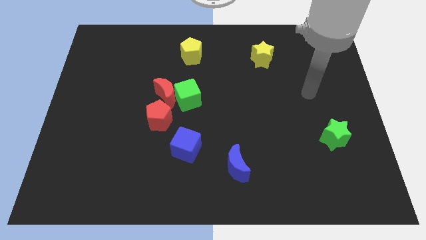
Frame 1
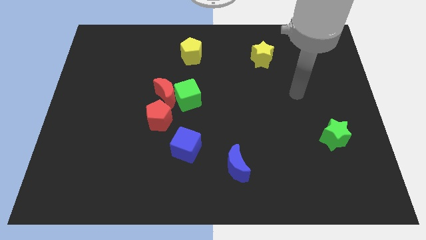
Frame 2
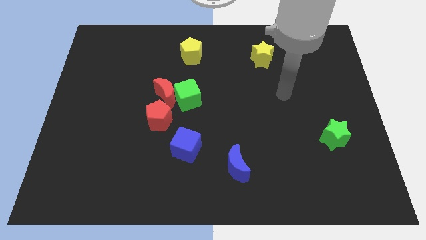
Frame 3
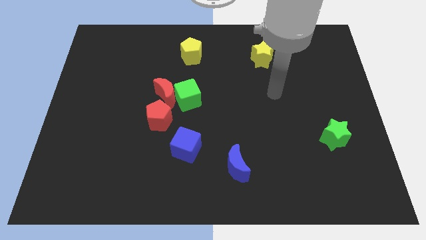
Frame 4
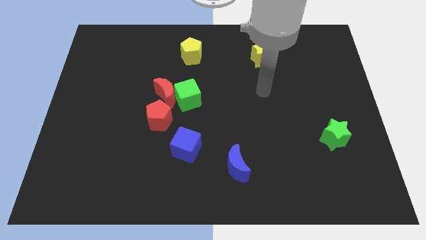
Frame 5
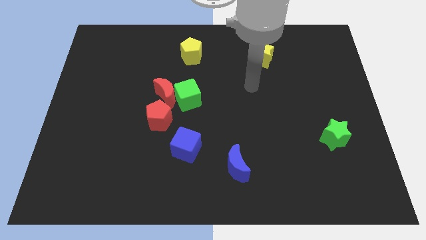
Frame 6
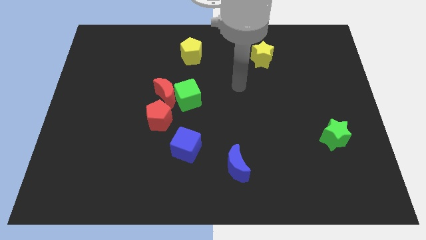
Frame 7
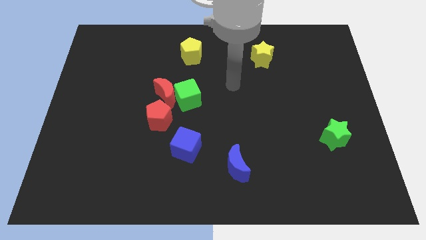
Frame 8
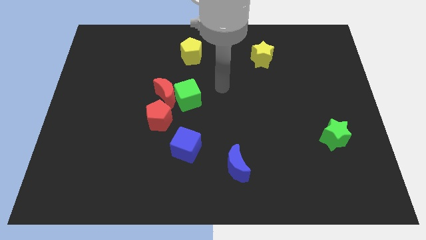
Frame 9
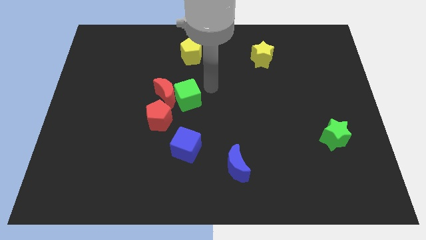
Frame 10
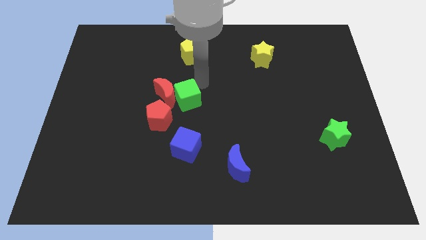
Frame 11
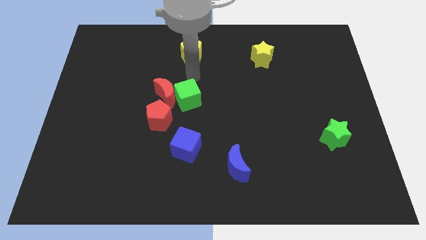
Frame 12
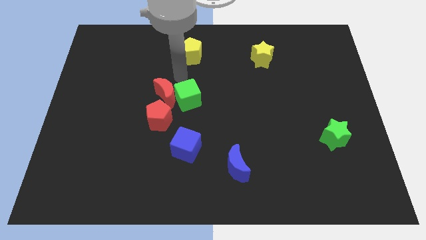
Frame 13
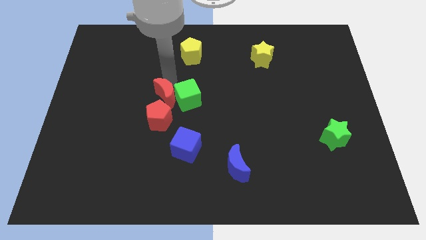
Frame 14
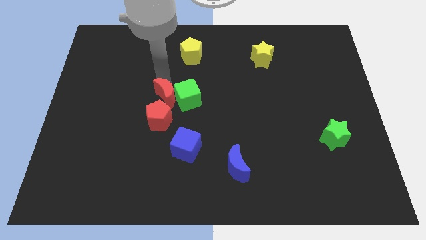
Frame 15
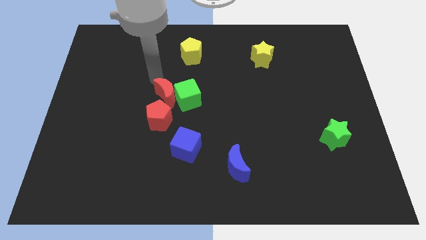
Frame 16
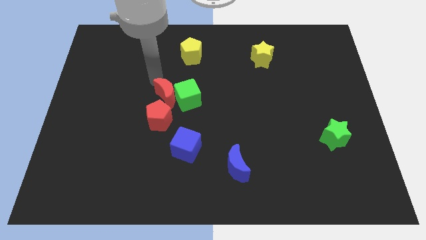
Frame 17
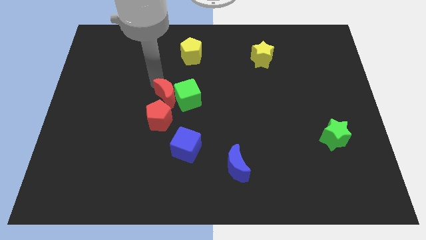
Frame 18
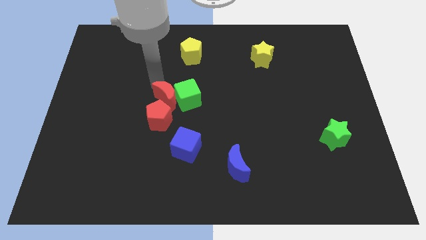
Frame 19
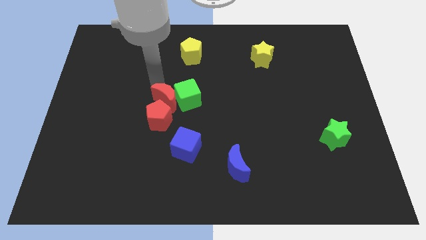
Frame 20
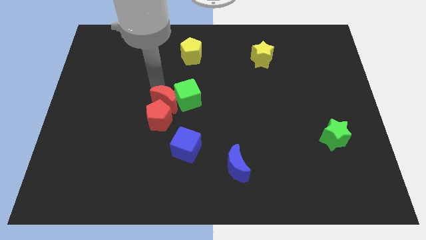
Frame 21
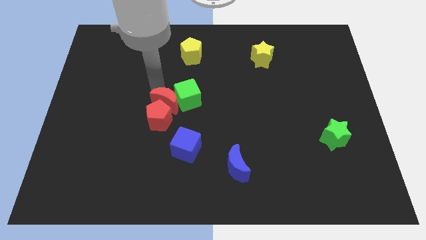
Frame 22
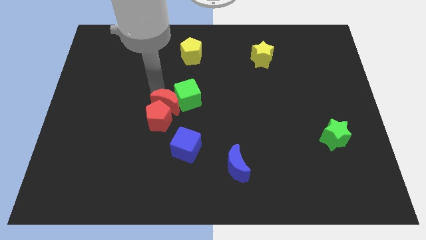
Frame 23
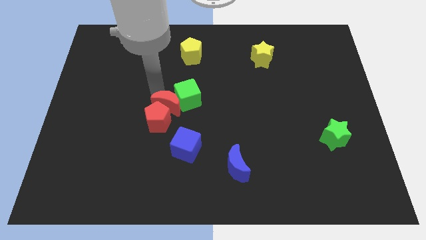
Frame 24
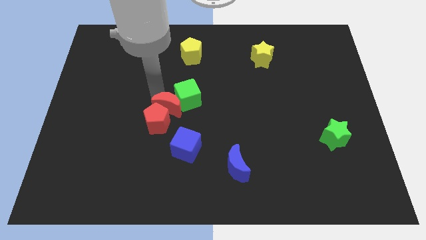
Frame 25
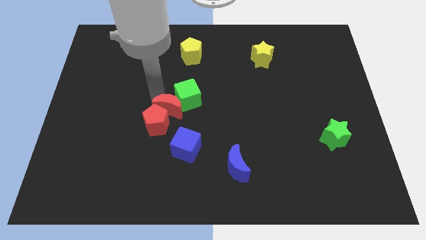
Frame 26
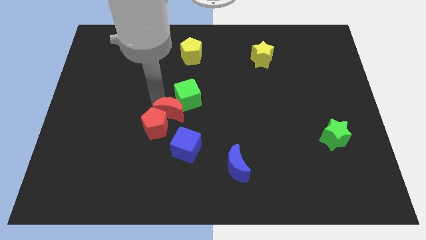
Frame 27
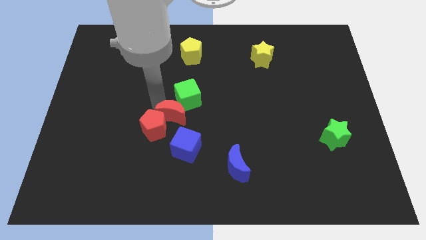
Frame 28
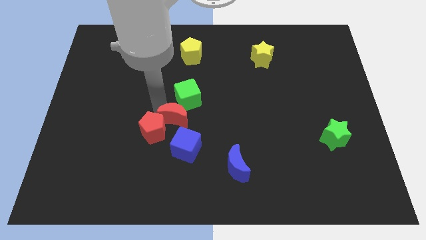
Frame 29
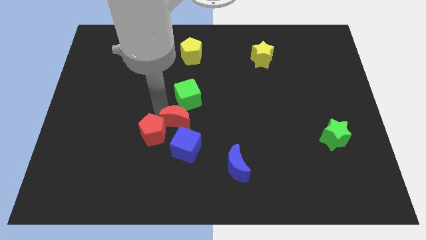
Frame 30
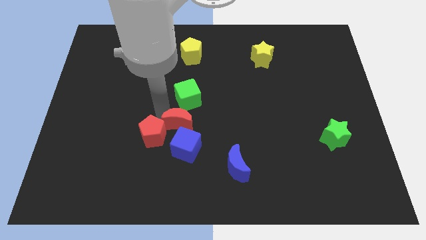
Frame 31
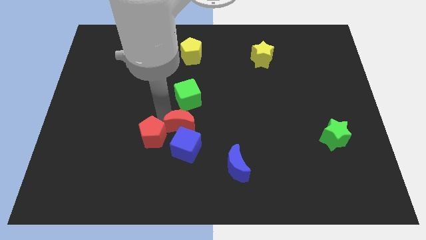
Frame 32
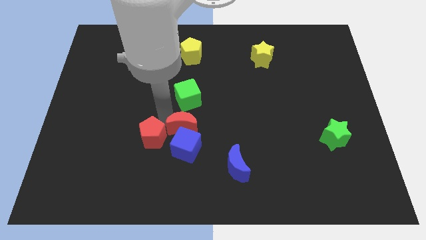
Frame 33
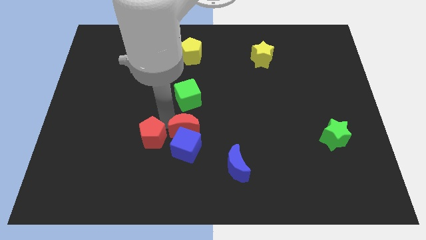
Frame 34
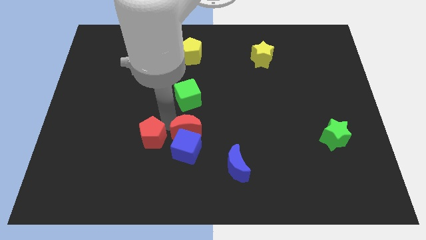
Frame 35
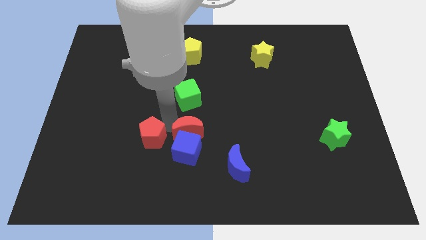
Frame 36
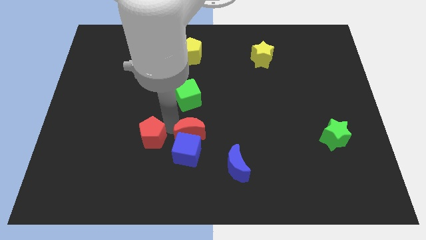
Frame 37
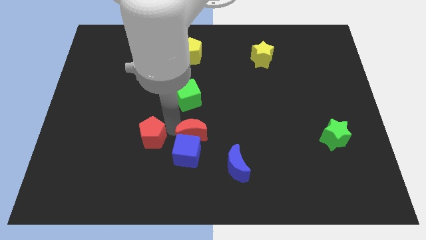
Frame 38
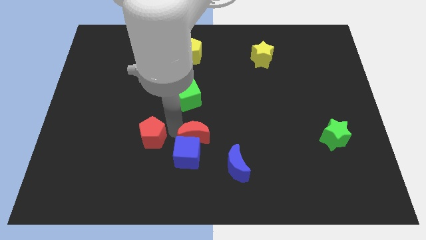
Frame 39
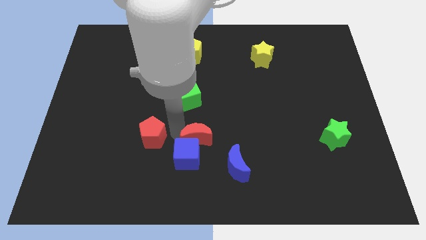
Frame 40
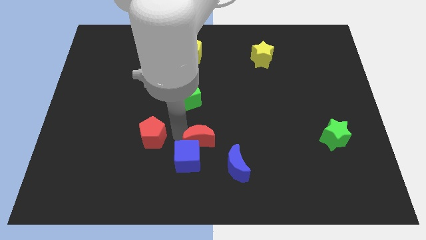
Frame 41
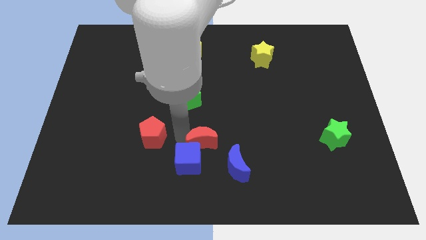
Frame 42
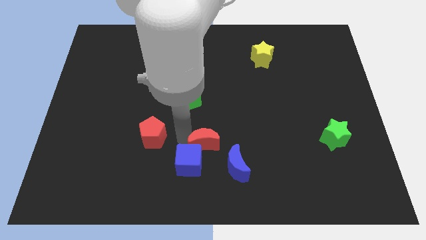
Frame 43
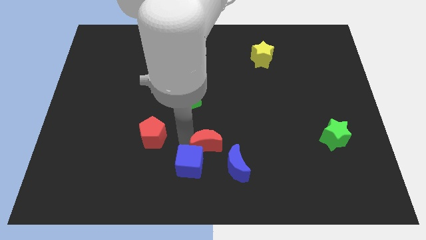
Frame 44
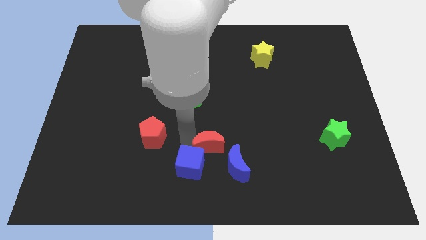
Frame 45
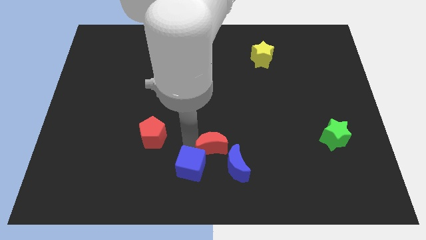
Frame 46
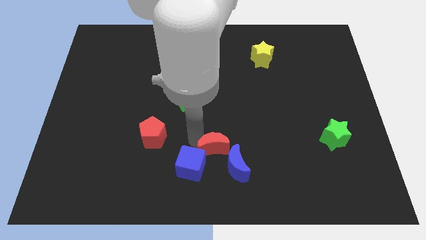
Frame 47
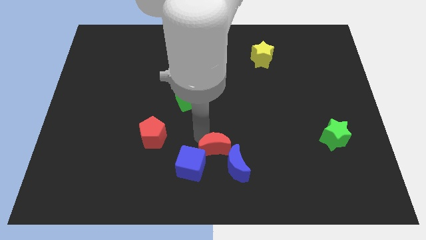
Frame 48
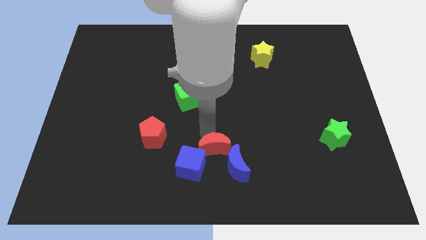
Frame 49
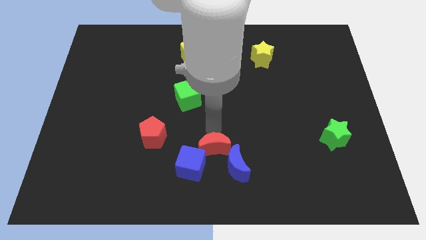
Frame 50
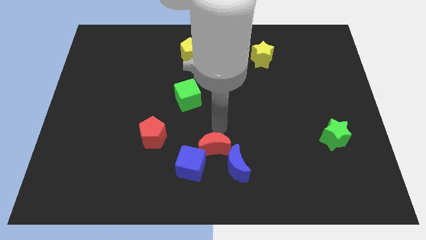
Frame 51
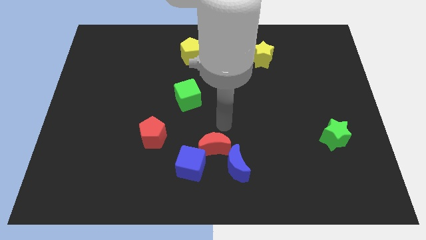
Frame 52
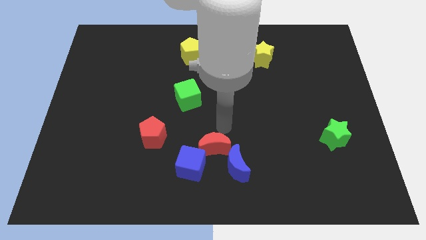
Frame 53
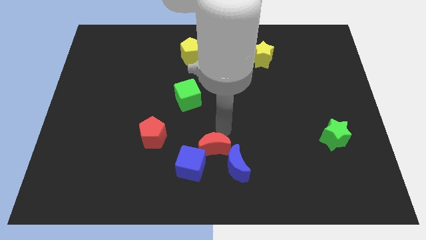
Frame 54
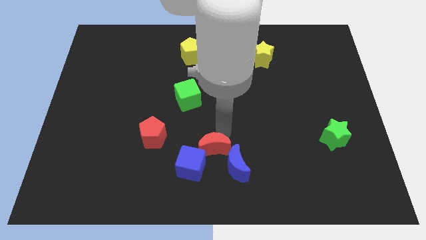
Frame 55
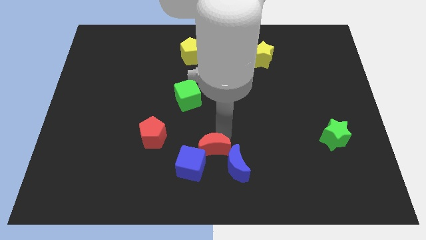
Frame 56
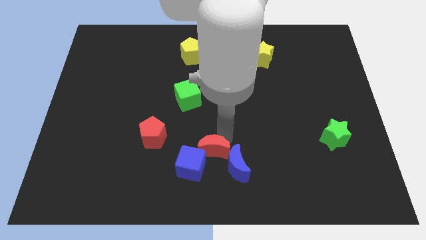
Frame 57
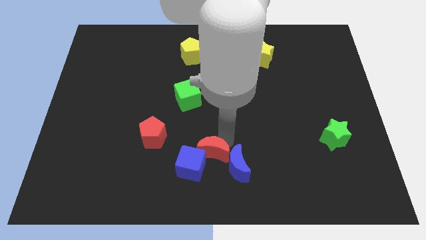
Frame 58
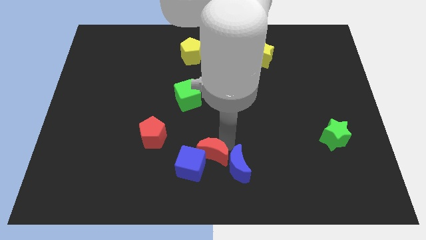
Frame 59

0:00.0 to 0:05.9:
put the red moon to the bottom side

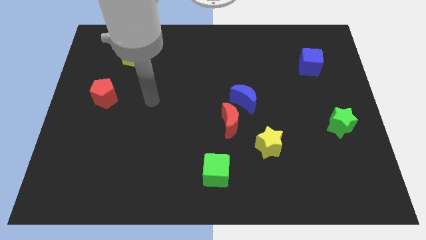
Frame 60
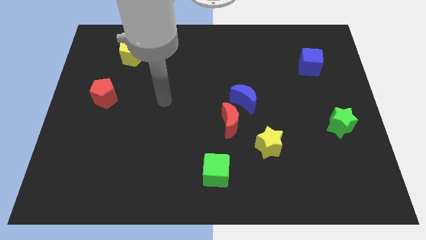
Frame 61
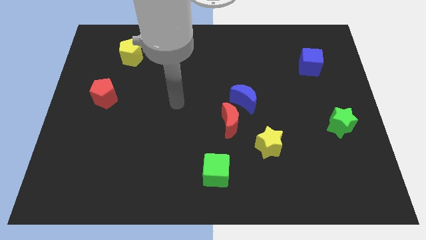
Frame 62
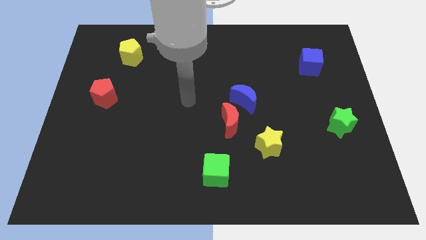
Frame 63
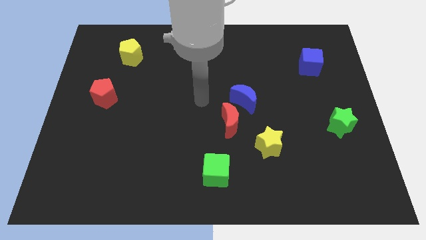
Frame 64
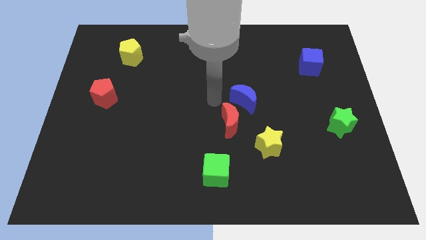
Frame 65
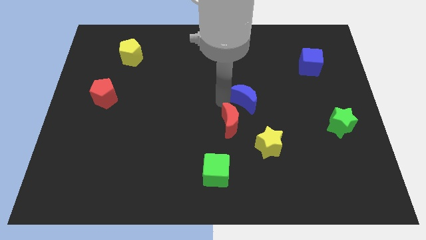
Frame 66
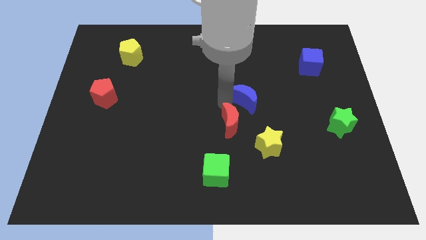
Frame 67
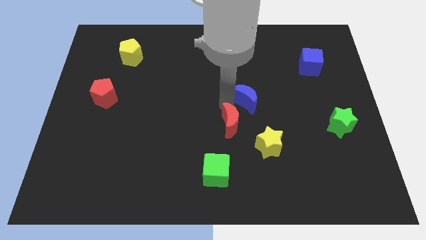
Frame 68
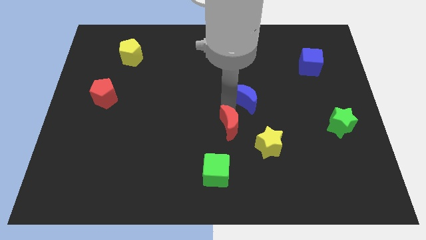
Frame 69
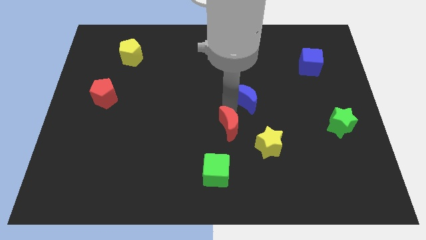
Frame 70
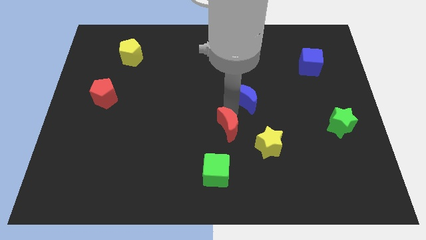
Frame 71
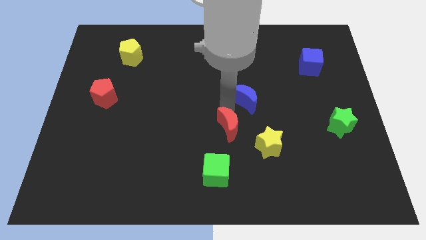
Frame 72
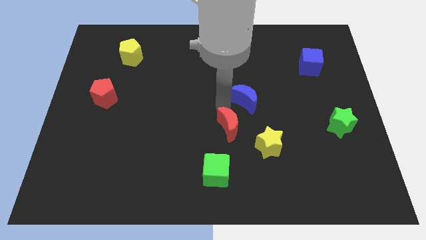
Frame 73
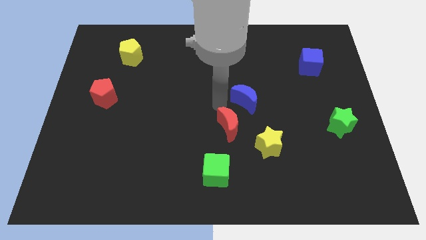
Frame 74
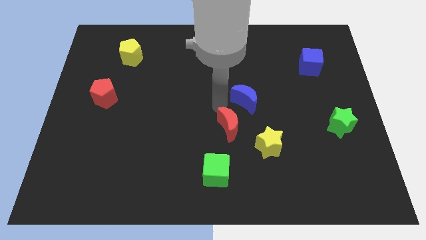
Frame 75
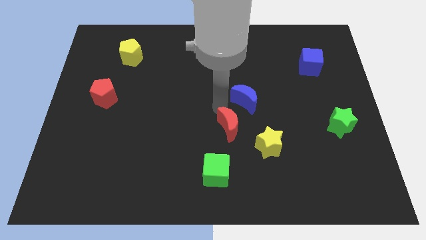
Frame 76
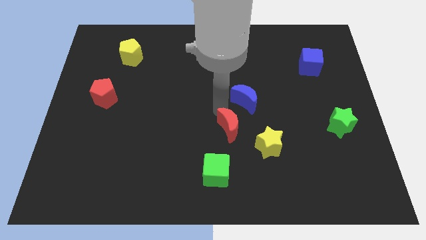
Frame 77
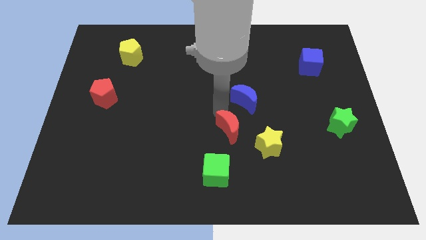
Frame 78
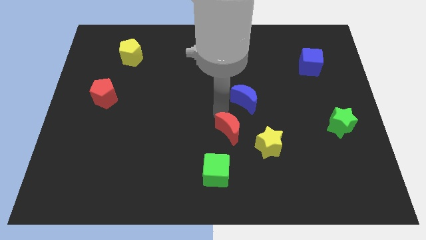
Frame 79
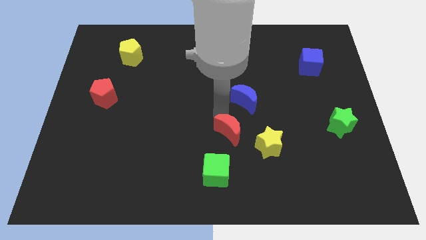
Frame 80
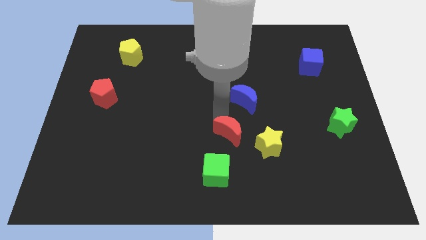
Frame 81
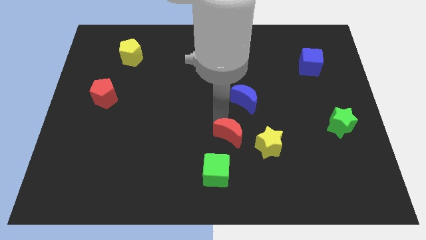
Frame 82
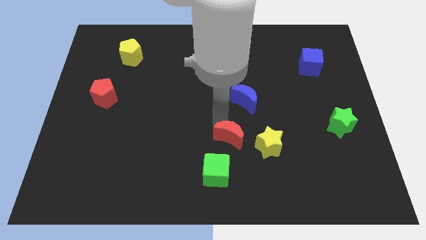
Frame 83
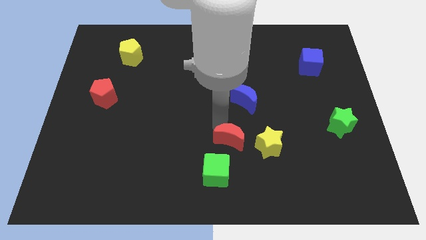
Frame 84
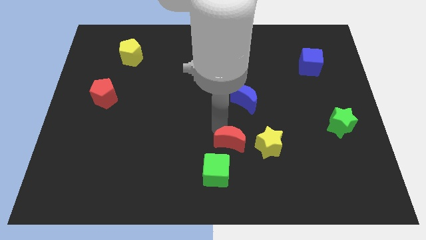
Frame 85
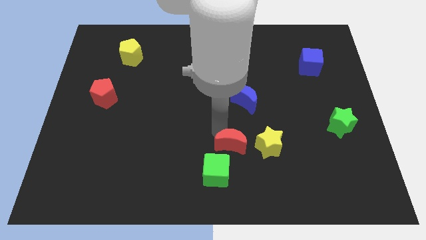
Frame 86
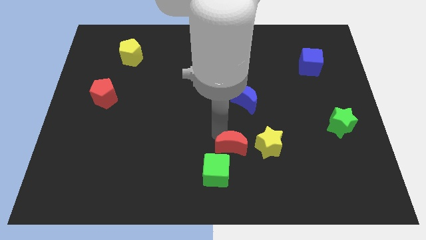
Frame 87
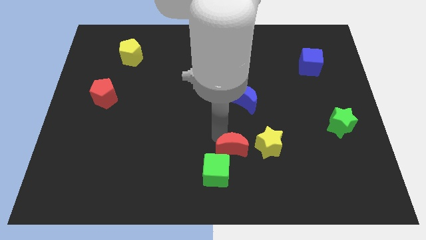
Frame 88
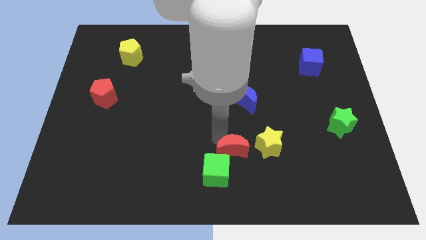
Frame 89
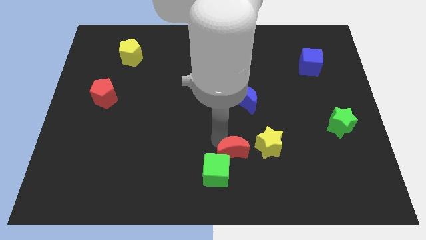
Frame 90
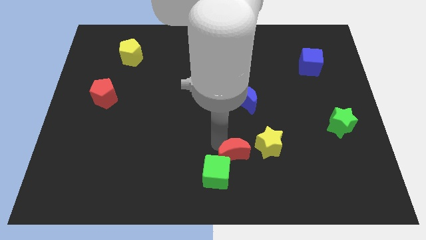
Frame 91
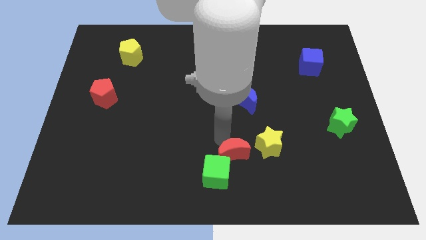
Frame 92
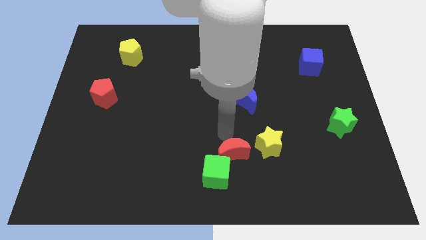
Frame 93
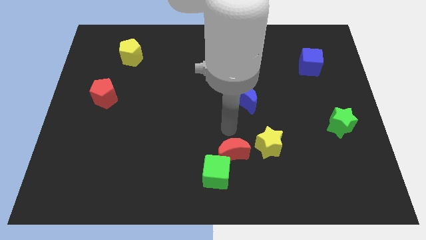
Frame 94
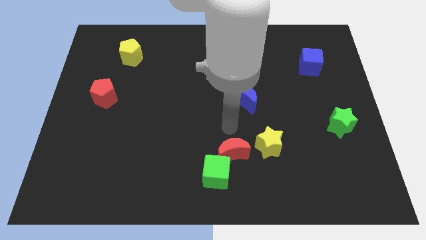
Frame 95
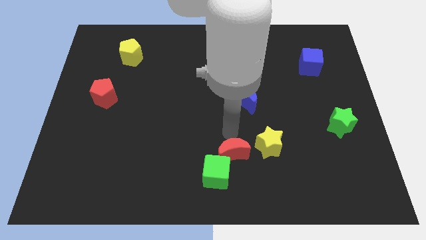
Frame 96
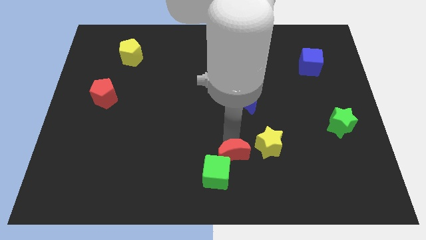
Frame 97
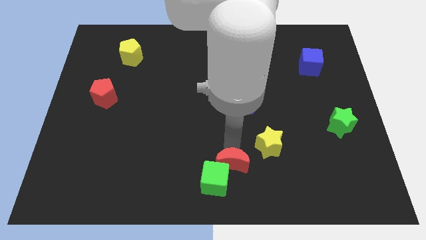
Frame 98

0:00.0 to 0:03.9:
slide the red moon to the bottom
